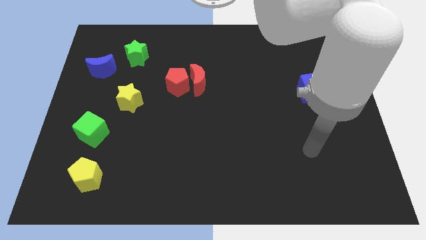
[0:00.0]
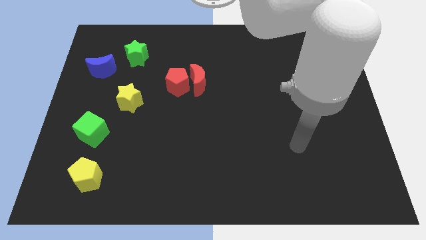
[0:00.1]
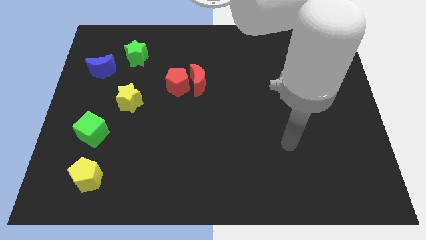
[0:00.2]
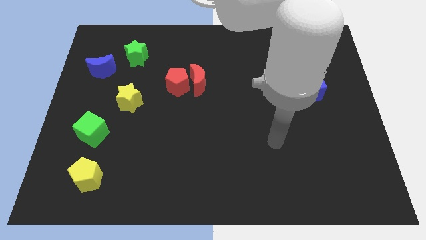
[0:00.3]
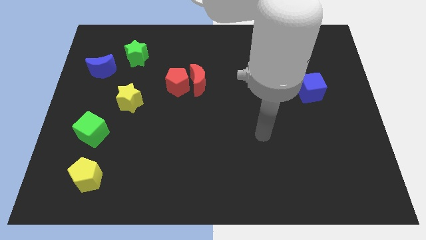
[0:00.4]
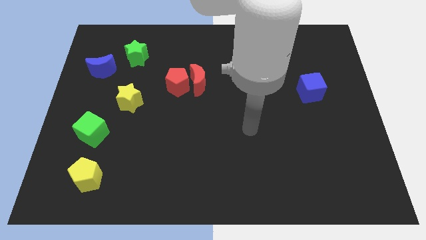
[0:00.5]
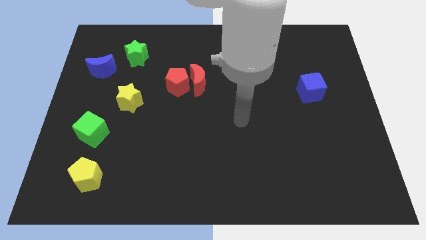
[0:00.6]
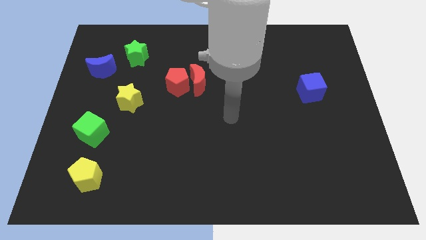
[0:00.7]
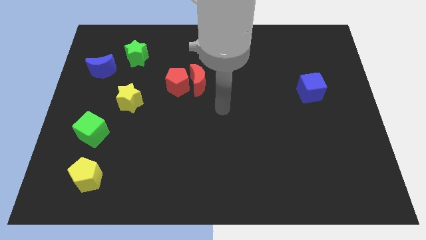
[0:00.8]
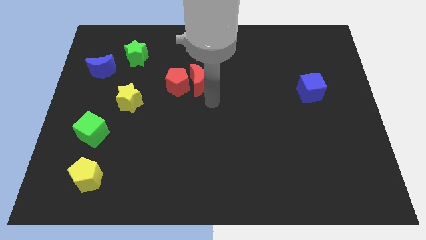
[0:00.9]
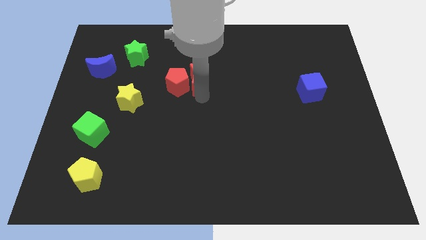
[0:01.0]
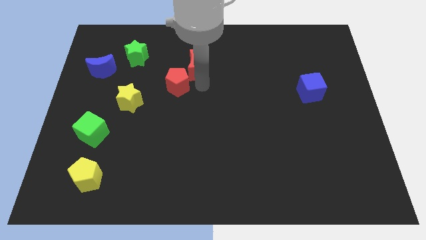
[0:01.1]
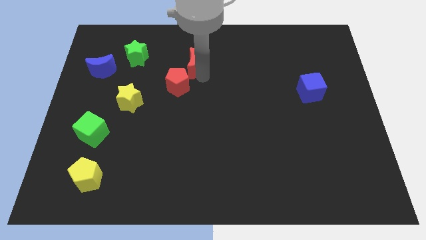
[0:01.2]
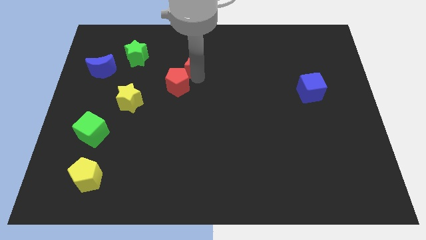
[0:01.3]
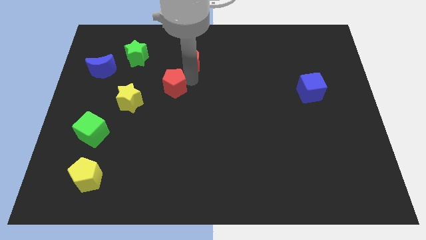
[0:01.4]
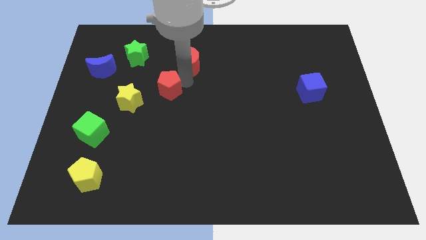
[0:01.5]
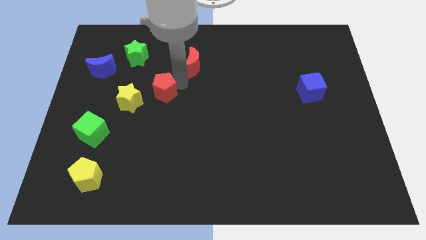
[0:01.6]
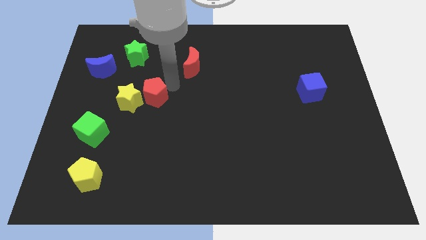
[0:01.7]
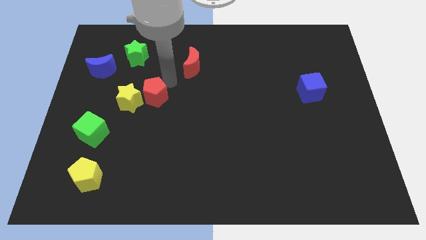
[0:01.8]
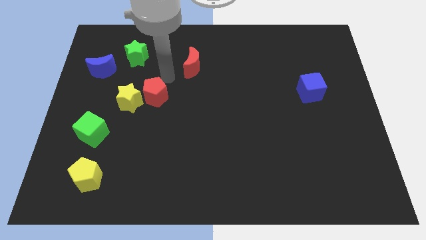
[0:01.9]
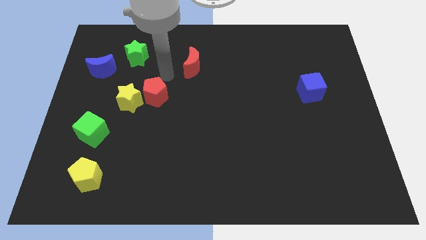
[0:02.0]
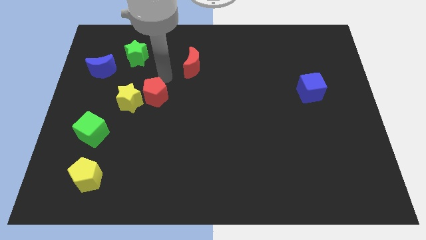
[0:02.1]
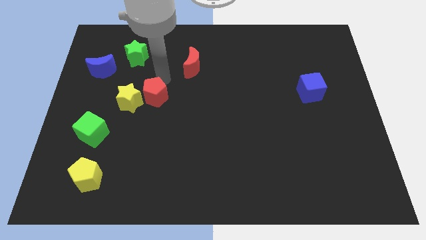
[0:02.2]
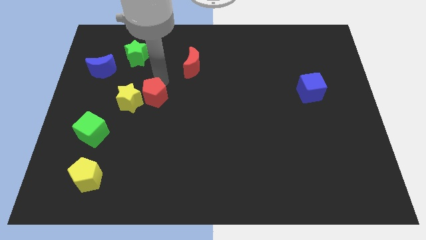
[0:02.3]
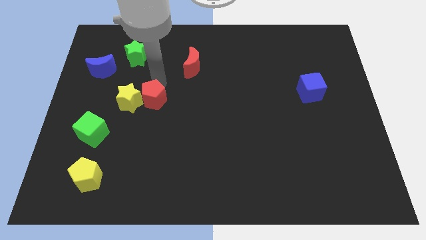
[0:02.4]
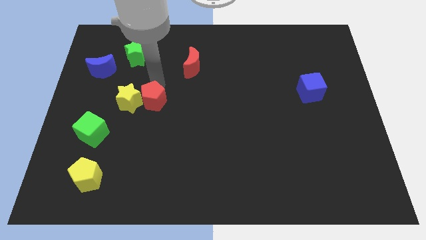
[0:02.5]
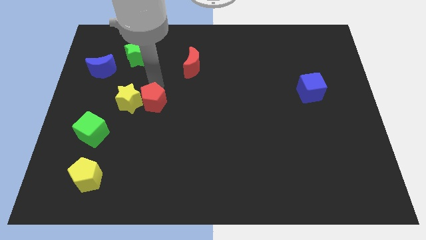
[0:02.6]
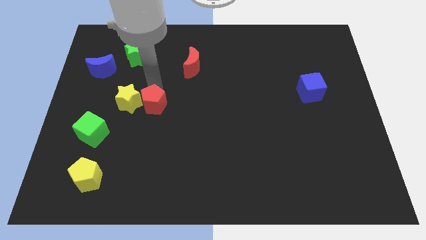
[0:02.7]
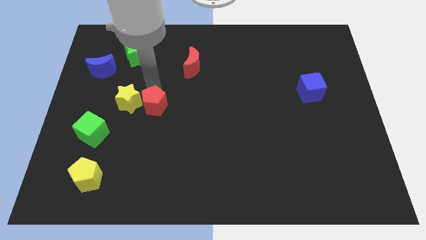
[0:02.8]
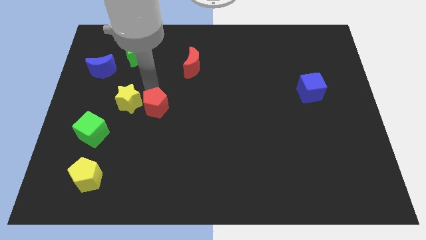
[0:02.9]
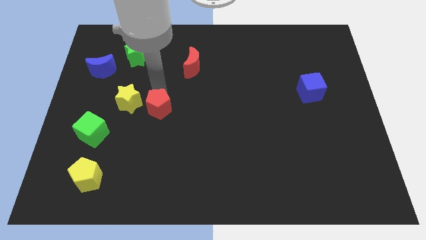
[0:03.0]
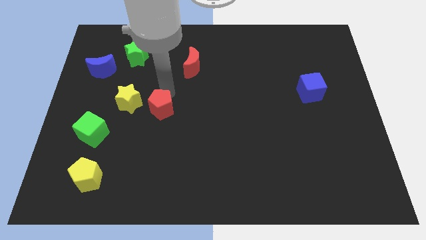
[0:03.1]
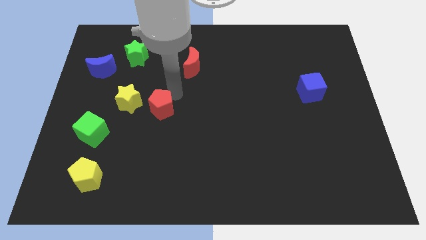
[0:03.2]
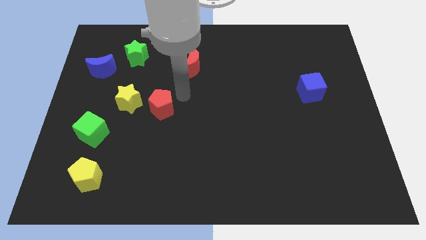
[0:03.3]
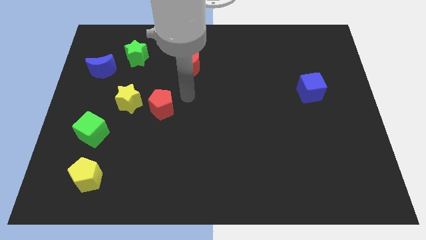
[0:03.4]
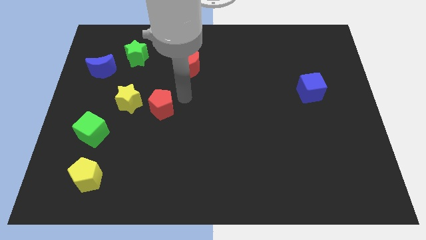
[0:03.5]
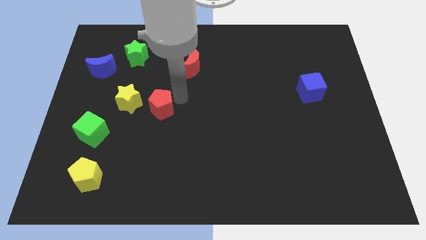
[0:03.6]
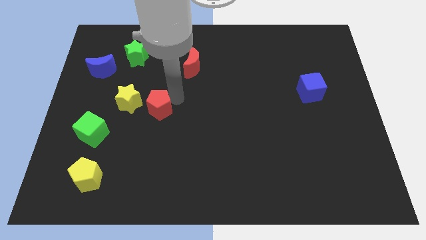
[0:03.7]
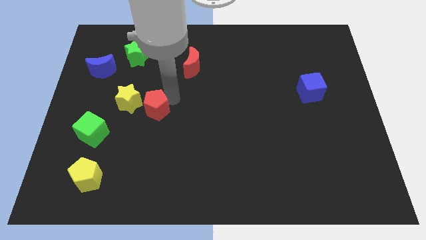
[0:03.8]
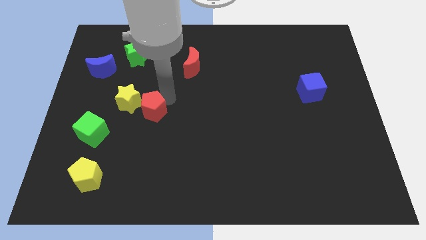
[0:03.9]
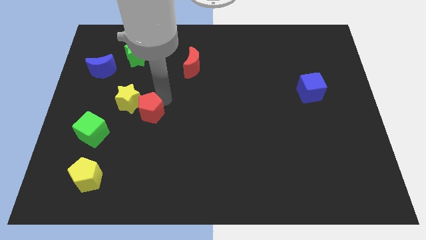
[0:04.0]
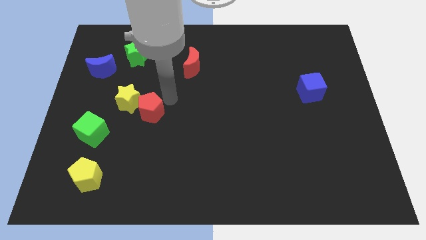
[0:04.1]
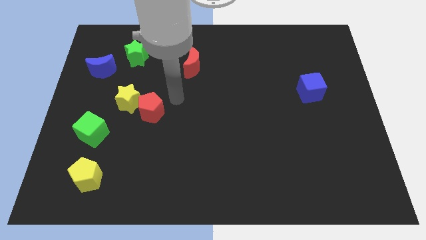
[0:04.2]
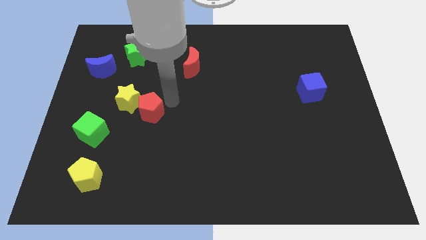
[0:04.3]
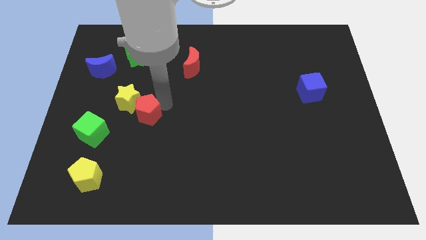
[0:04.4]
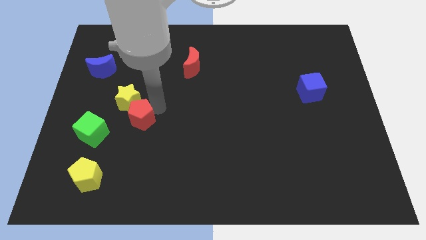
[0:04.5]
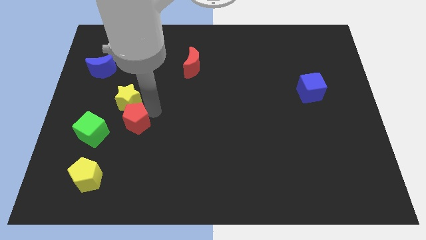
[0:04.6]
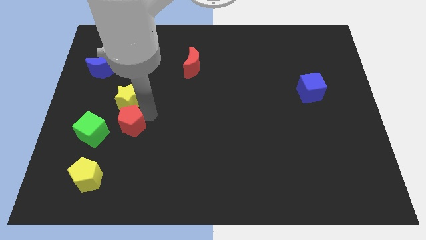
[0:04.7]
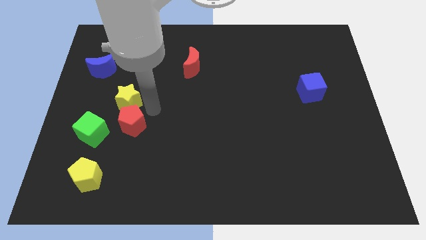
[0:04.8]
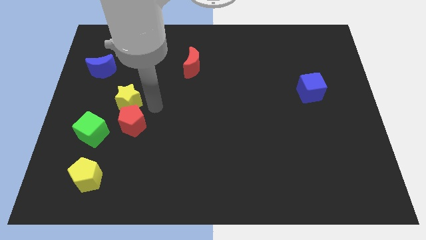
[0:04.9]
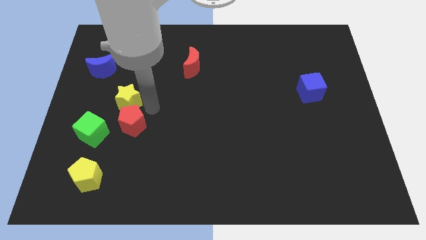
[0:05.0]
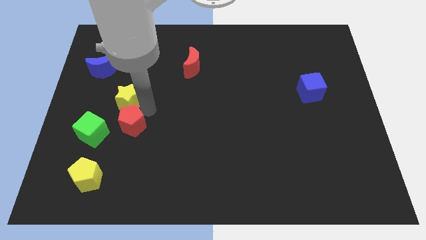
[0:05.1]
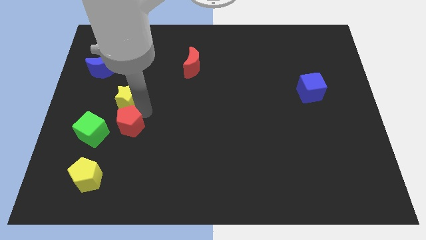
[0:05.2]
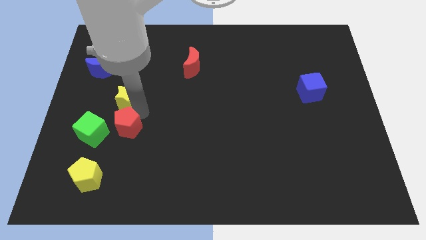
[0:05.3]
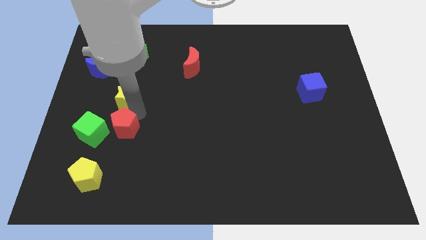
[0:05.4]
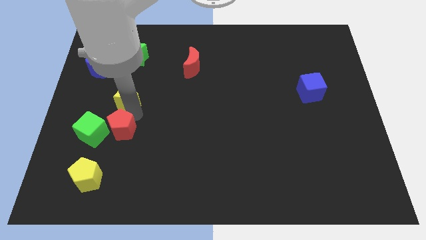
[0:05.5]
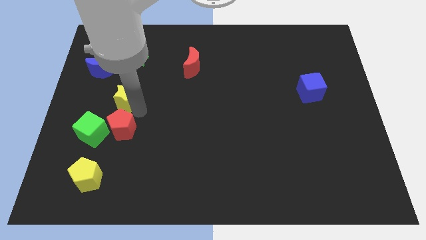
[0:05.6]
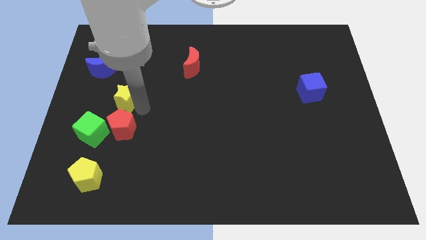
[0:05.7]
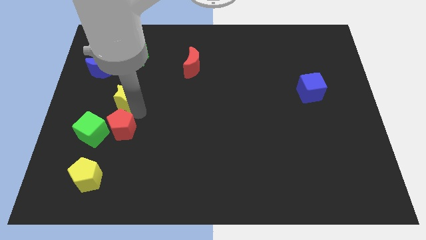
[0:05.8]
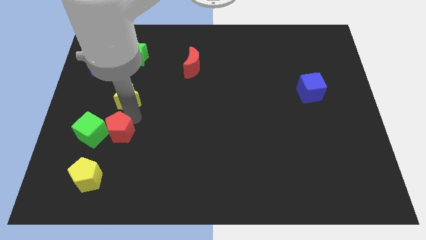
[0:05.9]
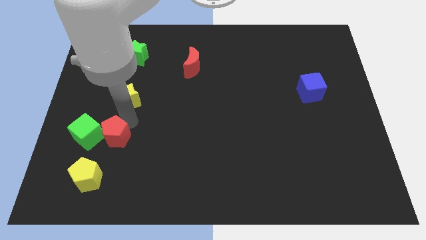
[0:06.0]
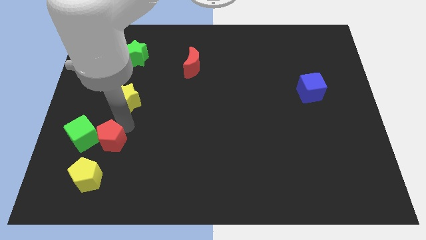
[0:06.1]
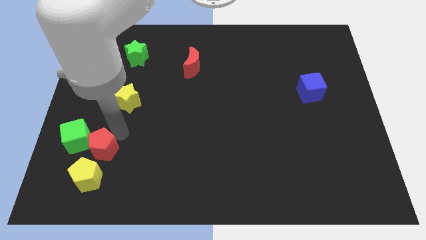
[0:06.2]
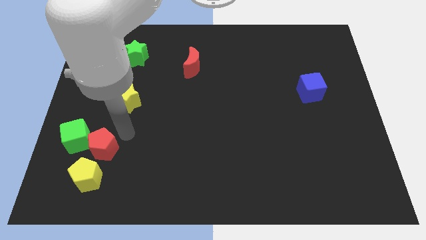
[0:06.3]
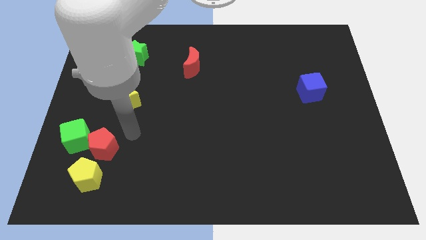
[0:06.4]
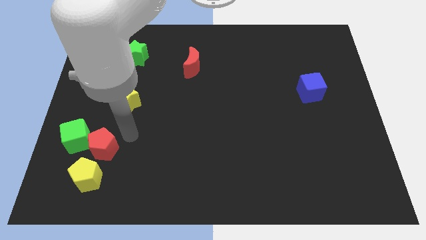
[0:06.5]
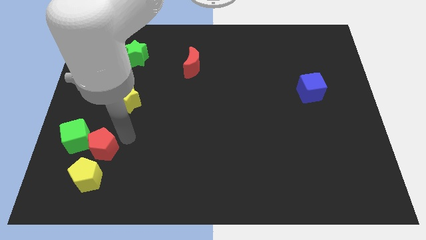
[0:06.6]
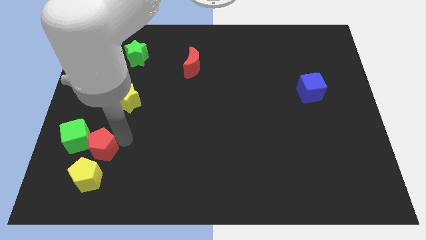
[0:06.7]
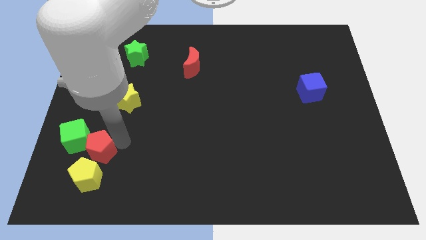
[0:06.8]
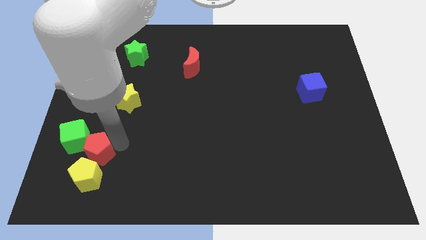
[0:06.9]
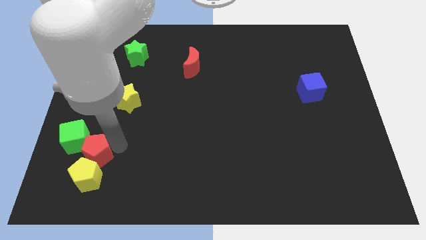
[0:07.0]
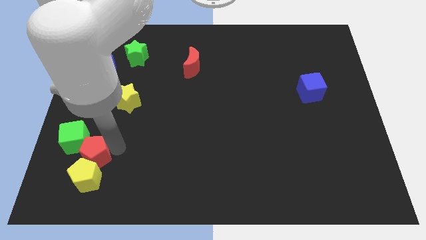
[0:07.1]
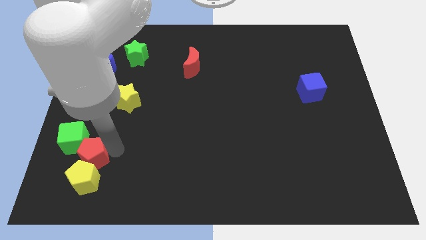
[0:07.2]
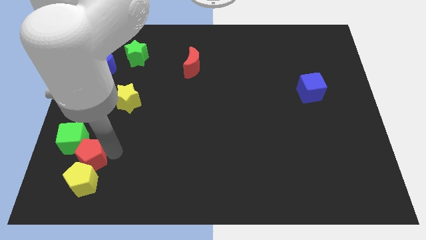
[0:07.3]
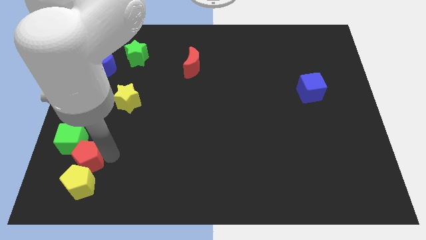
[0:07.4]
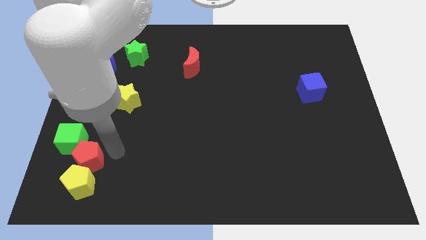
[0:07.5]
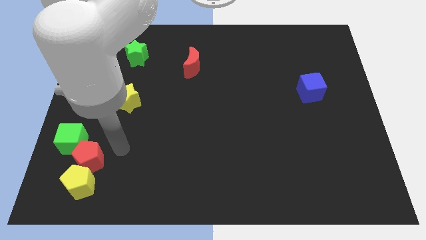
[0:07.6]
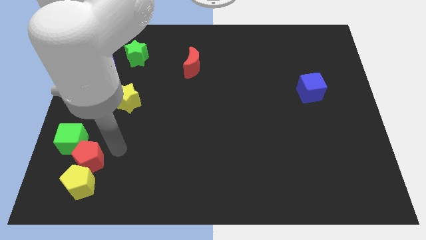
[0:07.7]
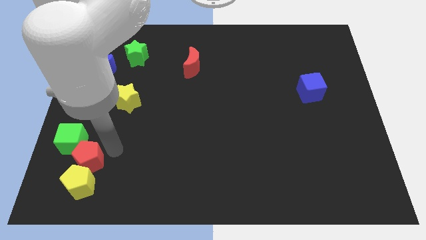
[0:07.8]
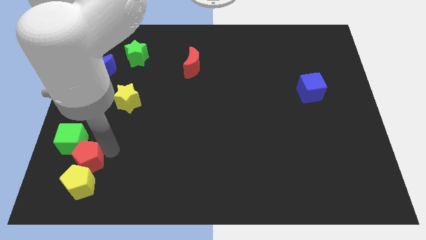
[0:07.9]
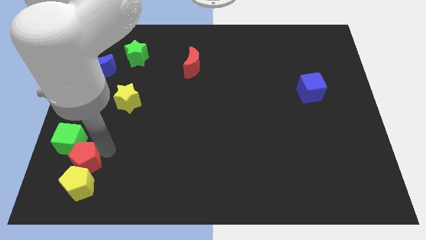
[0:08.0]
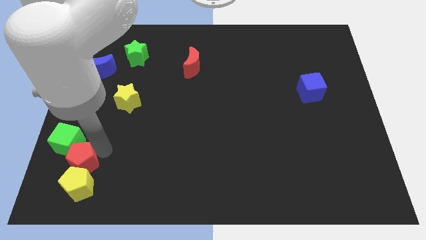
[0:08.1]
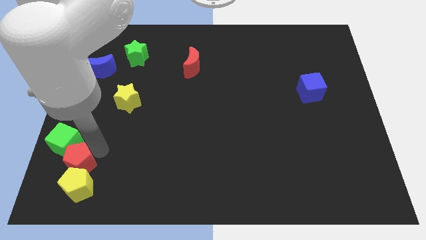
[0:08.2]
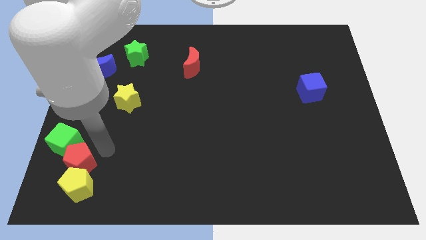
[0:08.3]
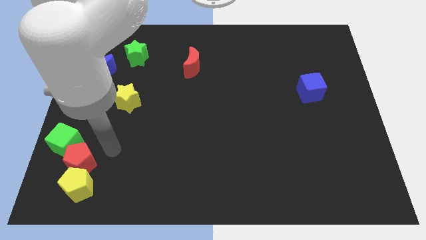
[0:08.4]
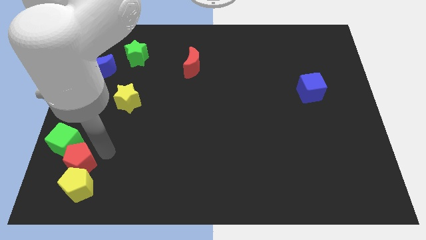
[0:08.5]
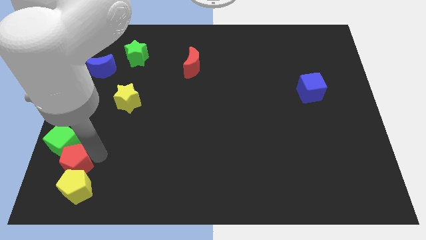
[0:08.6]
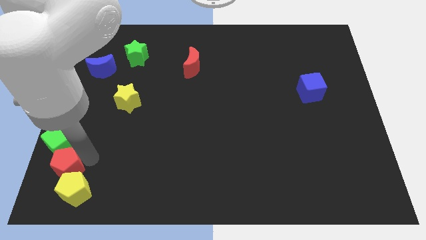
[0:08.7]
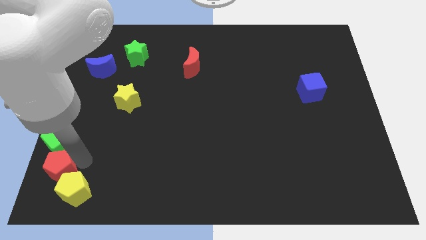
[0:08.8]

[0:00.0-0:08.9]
move the red pentagon to the lower left corner
